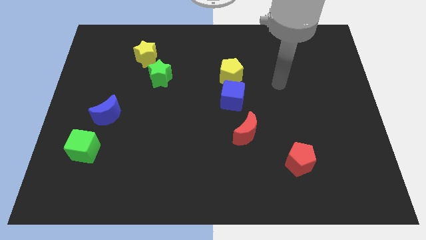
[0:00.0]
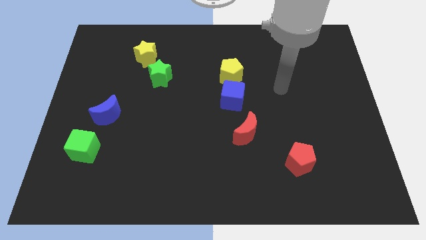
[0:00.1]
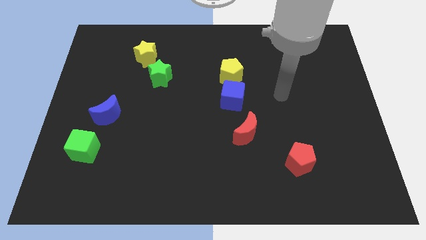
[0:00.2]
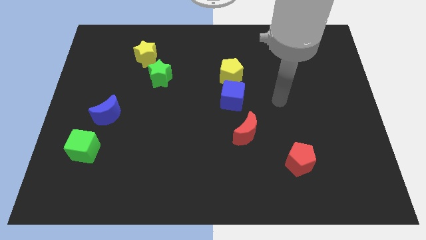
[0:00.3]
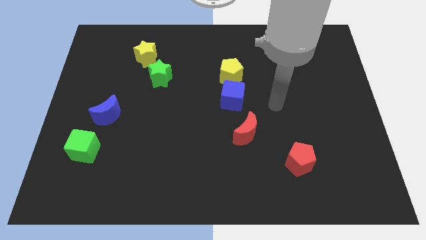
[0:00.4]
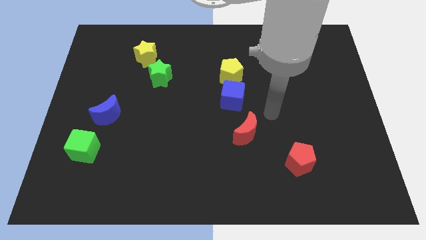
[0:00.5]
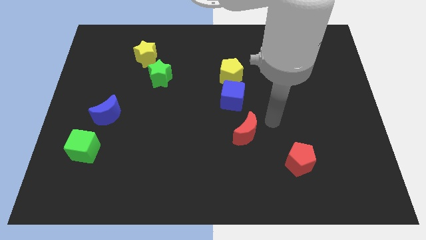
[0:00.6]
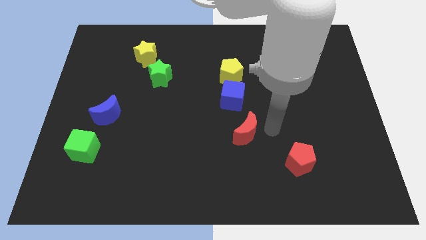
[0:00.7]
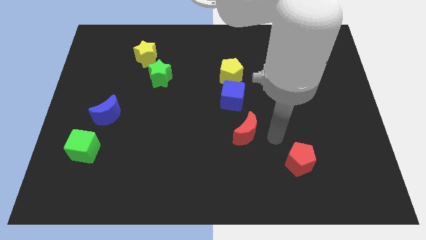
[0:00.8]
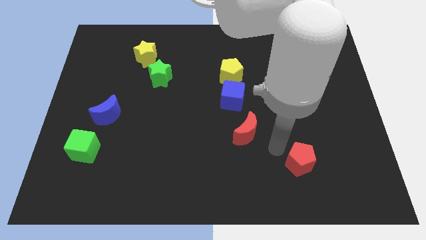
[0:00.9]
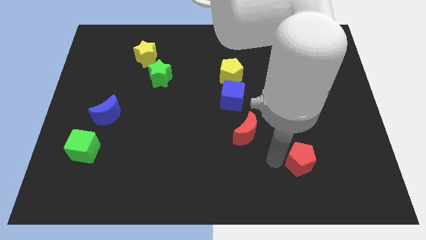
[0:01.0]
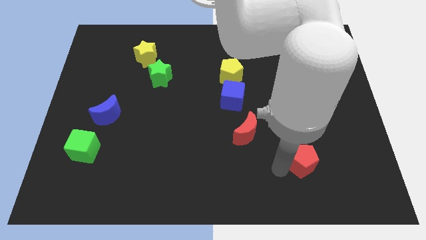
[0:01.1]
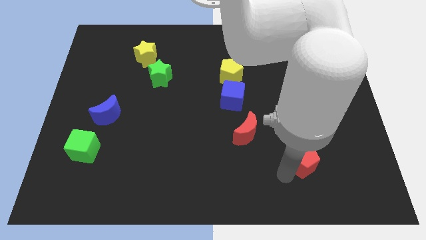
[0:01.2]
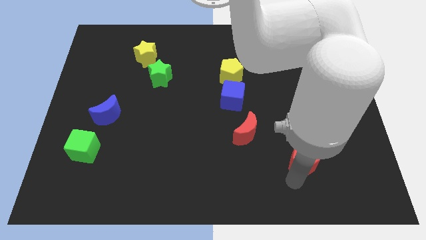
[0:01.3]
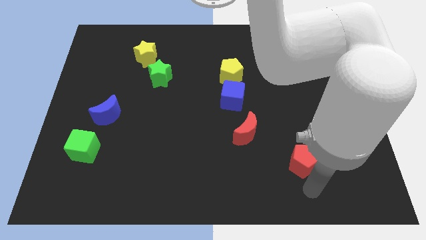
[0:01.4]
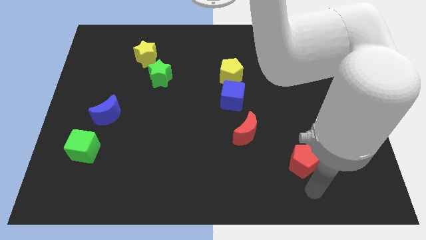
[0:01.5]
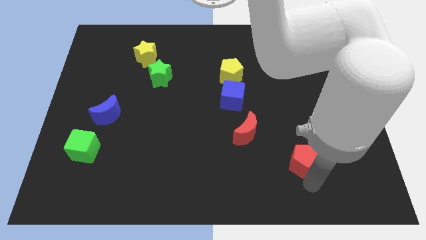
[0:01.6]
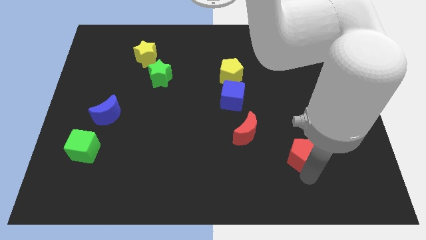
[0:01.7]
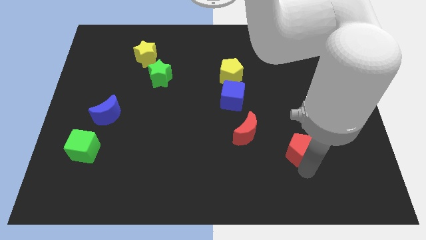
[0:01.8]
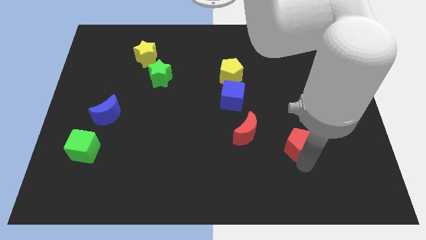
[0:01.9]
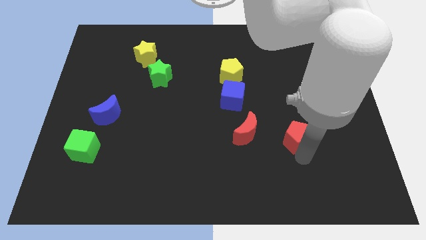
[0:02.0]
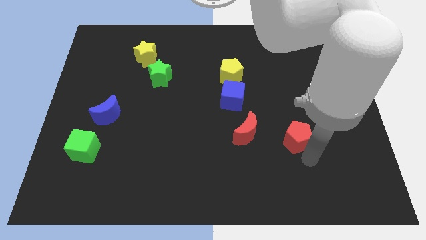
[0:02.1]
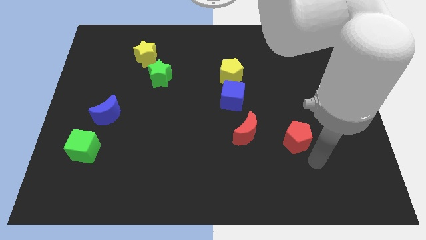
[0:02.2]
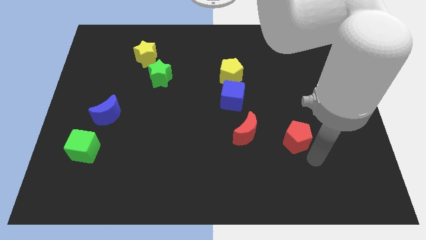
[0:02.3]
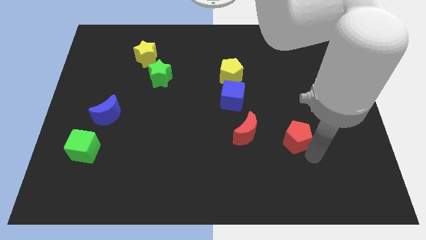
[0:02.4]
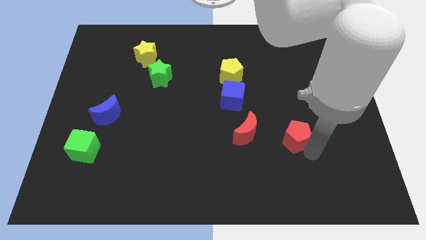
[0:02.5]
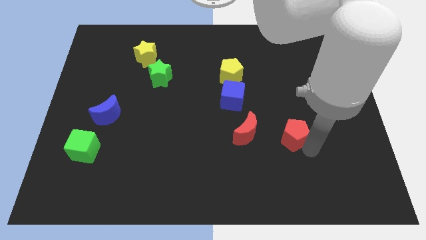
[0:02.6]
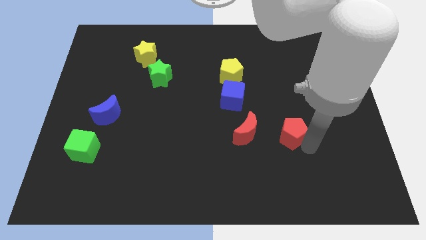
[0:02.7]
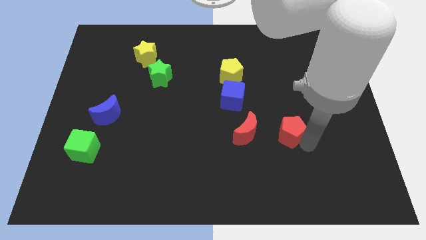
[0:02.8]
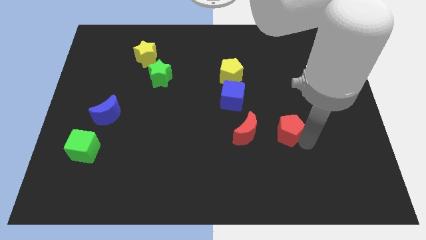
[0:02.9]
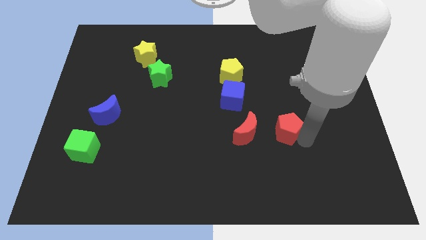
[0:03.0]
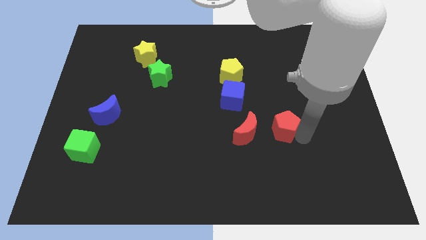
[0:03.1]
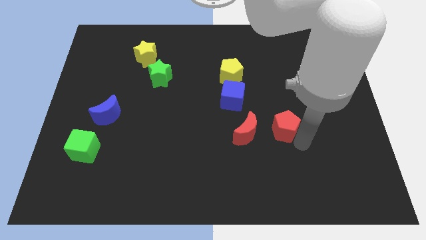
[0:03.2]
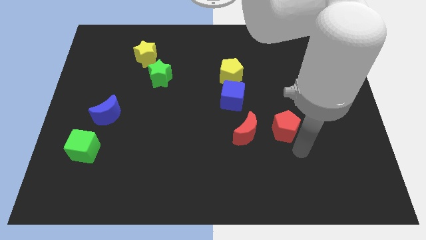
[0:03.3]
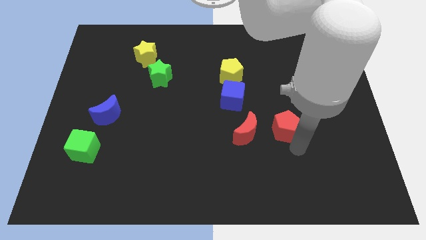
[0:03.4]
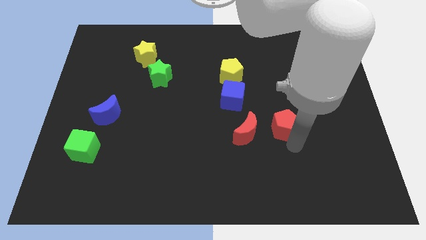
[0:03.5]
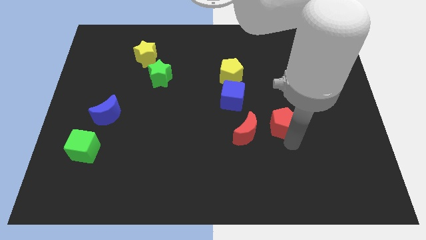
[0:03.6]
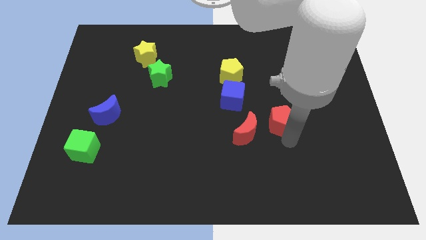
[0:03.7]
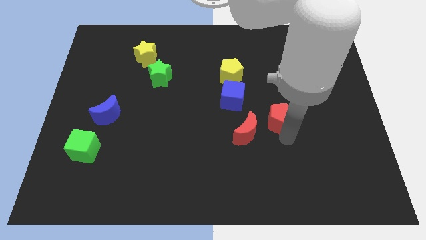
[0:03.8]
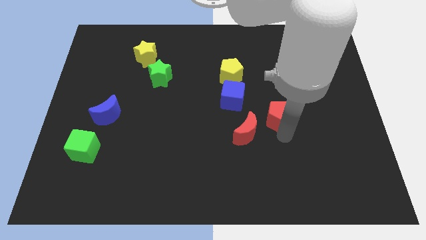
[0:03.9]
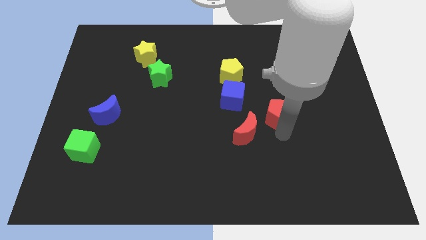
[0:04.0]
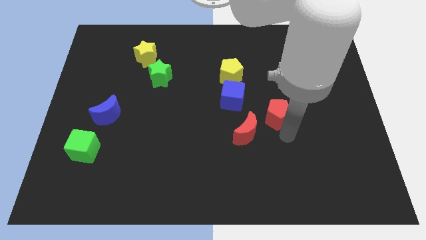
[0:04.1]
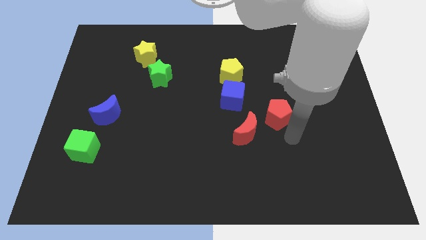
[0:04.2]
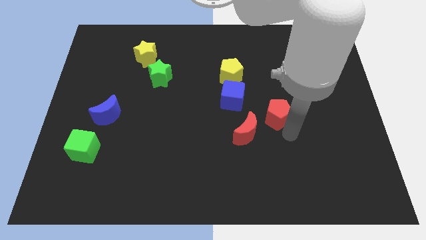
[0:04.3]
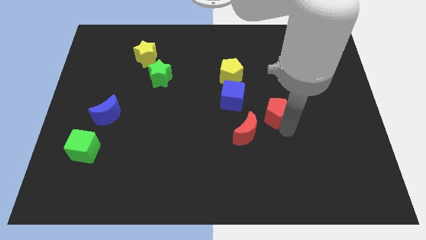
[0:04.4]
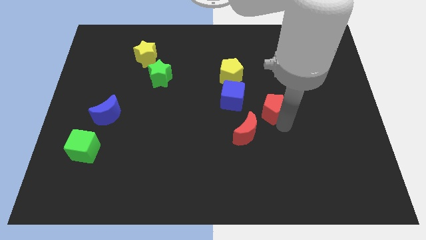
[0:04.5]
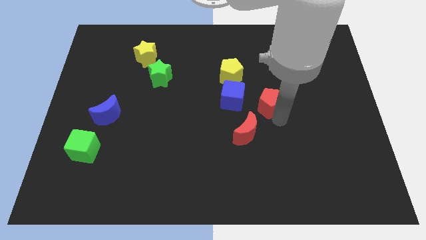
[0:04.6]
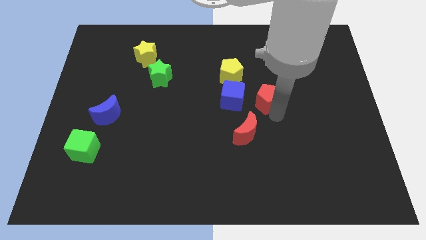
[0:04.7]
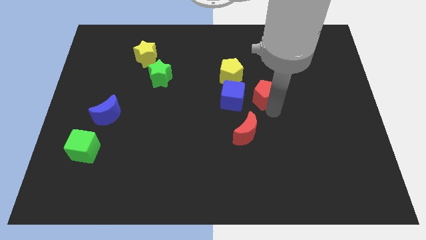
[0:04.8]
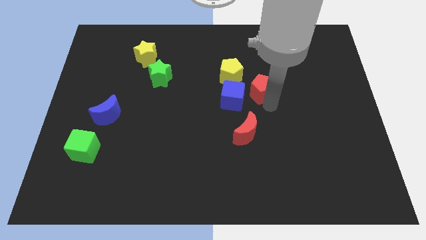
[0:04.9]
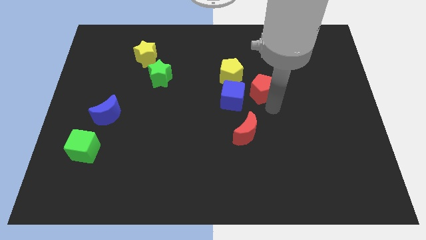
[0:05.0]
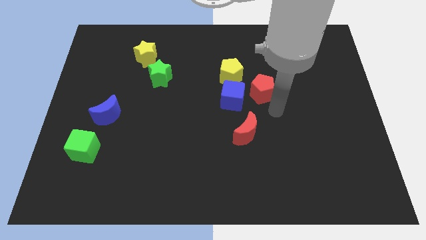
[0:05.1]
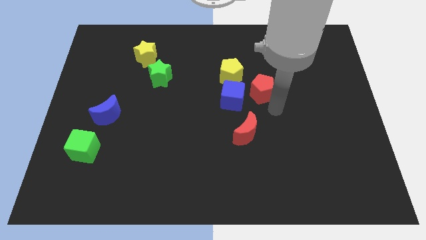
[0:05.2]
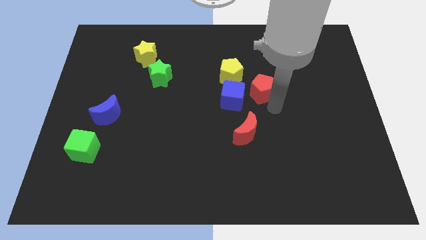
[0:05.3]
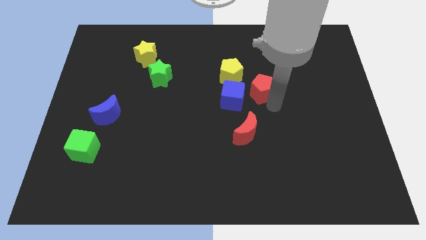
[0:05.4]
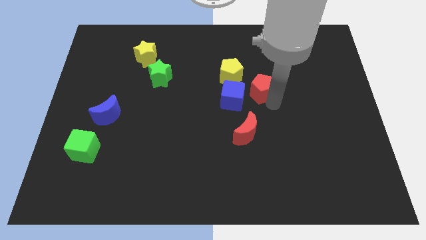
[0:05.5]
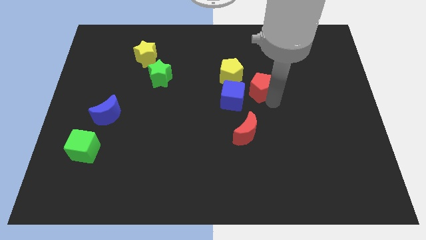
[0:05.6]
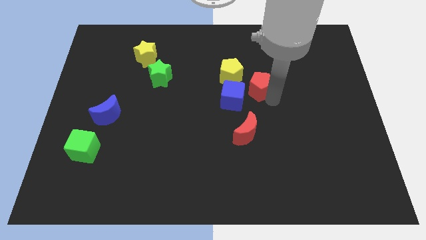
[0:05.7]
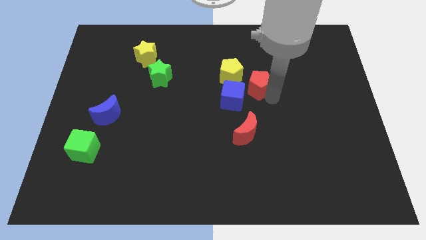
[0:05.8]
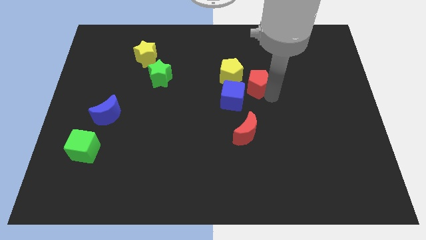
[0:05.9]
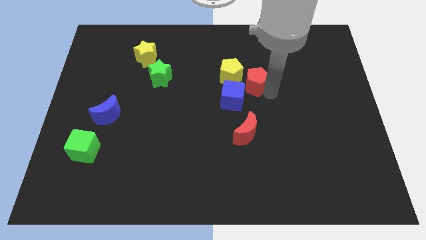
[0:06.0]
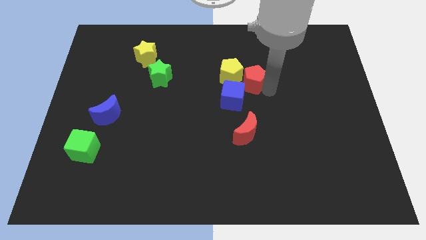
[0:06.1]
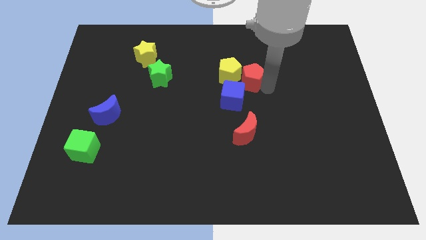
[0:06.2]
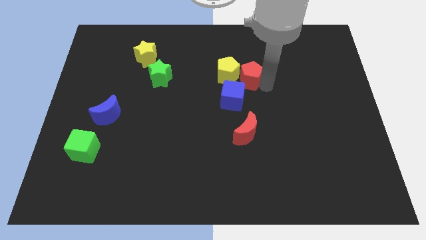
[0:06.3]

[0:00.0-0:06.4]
push the red pentagon above the blue cube

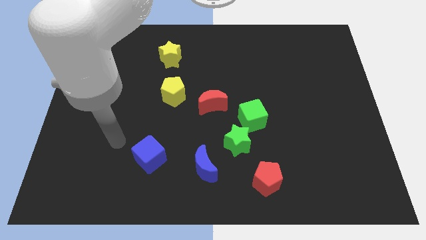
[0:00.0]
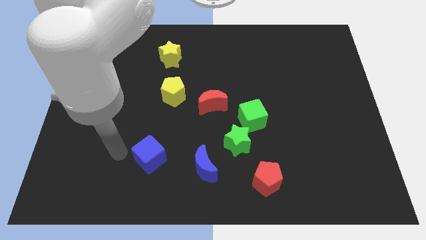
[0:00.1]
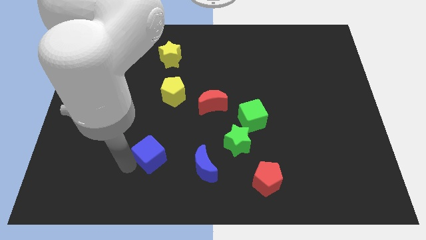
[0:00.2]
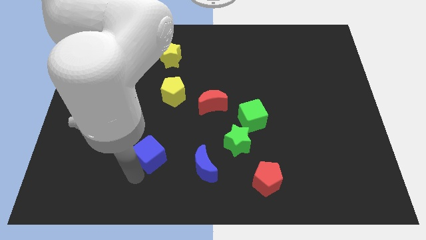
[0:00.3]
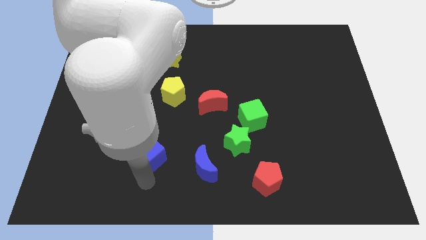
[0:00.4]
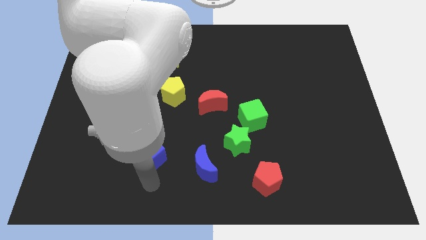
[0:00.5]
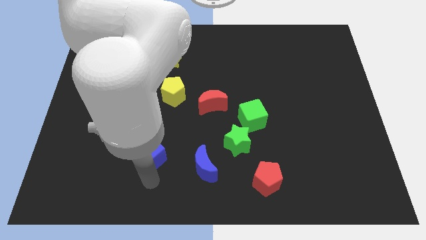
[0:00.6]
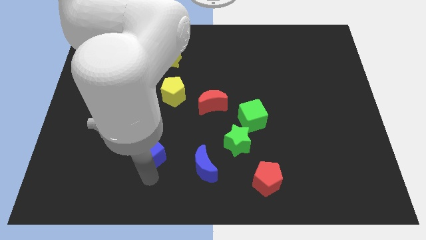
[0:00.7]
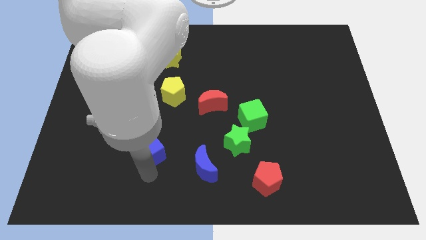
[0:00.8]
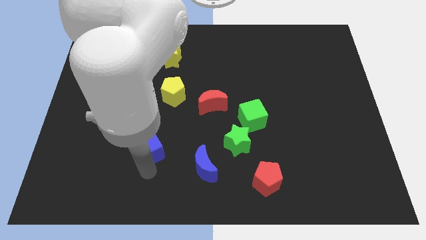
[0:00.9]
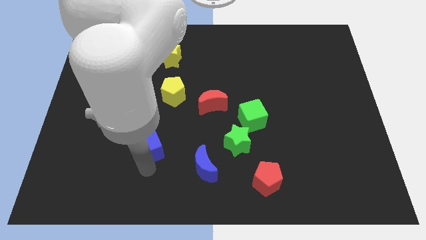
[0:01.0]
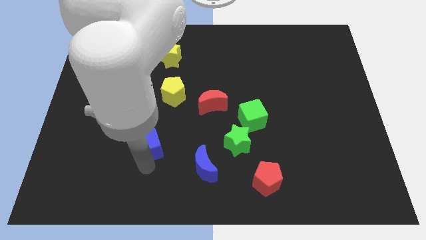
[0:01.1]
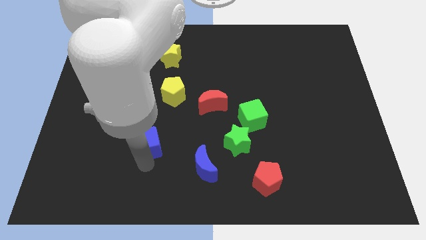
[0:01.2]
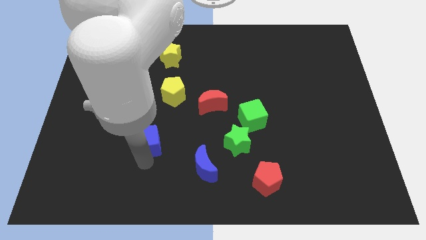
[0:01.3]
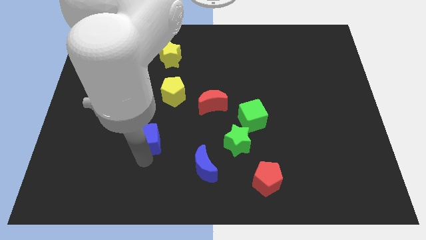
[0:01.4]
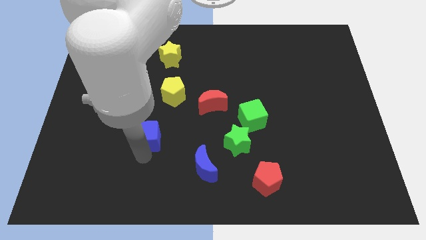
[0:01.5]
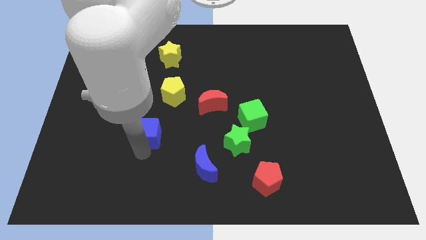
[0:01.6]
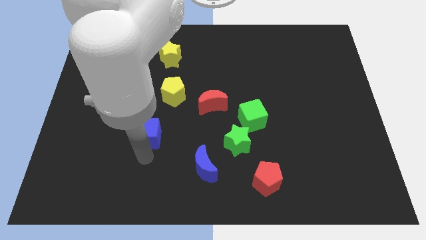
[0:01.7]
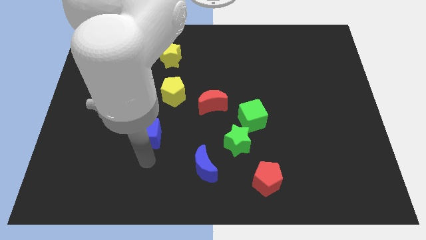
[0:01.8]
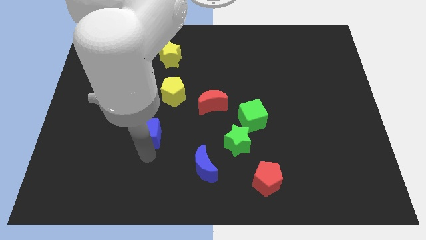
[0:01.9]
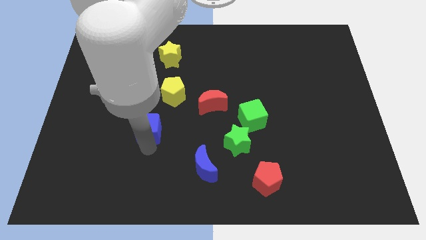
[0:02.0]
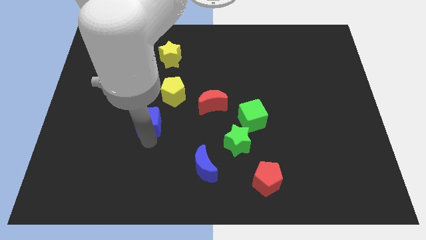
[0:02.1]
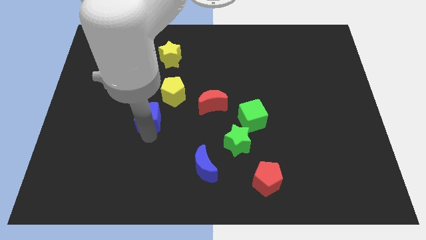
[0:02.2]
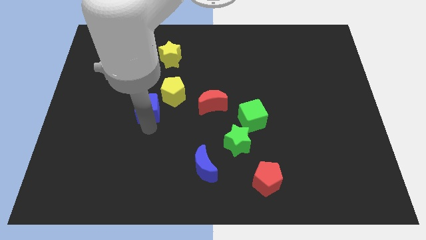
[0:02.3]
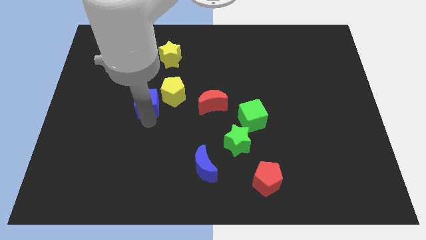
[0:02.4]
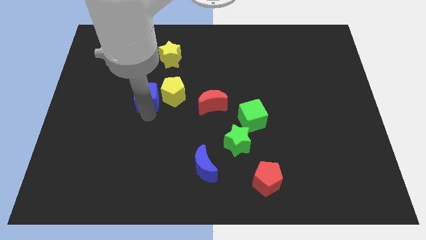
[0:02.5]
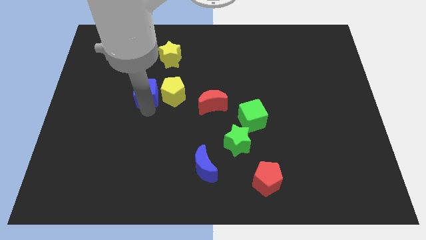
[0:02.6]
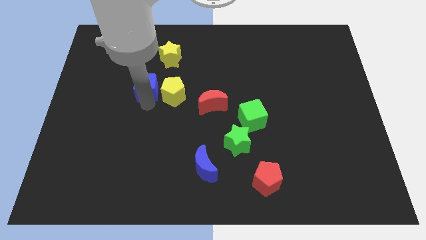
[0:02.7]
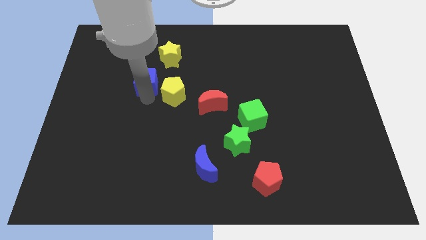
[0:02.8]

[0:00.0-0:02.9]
move the blue cube diagonally down and to the left of the yellow star
